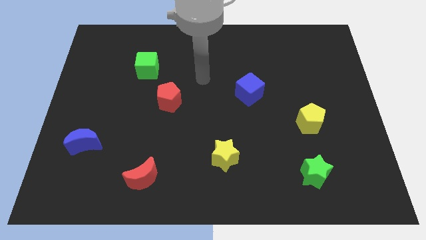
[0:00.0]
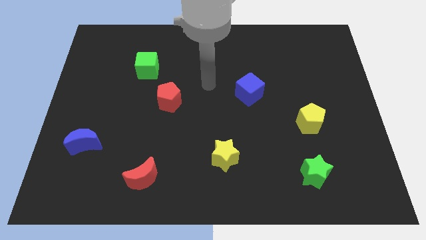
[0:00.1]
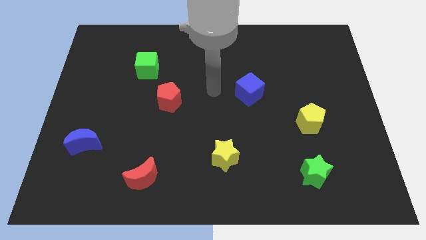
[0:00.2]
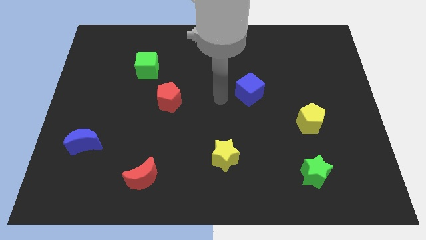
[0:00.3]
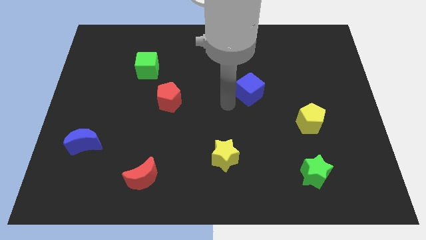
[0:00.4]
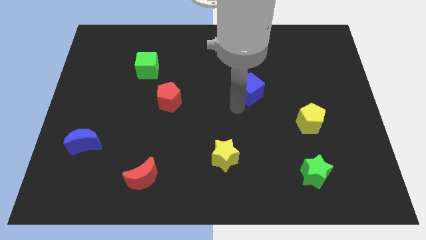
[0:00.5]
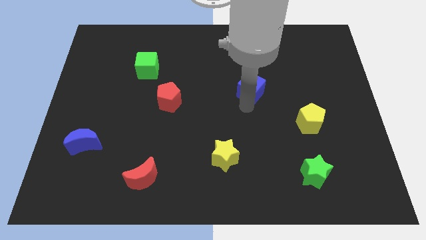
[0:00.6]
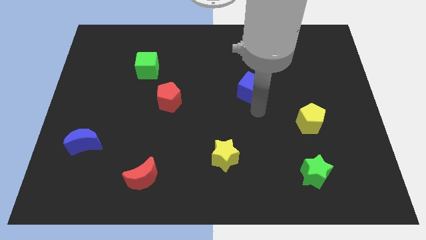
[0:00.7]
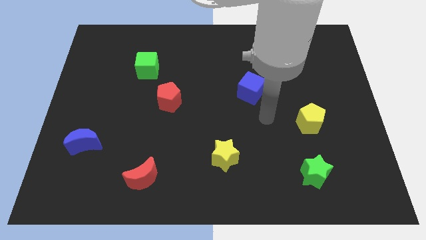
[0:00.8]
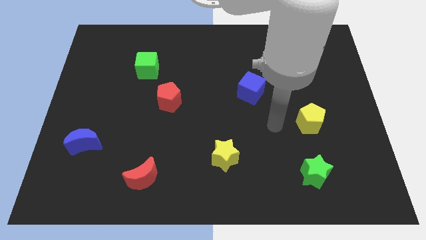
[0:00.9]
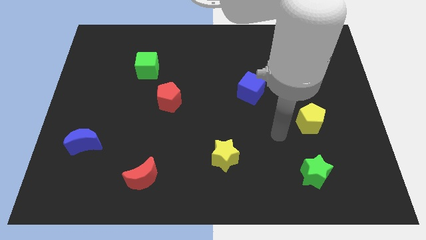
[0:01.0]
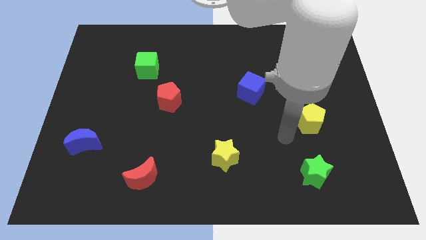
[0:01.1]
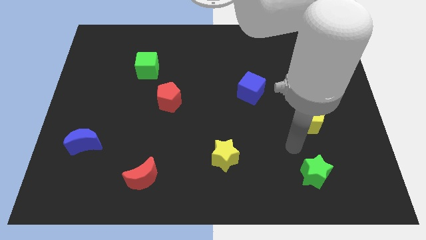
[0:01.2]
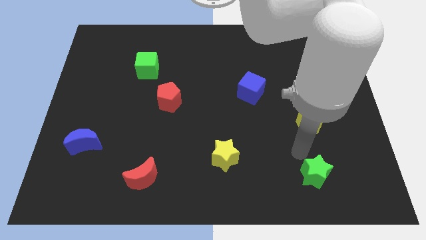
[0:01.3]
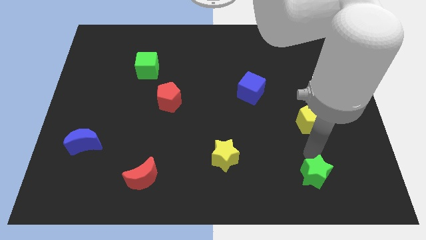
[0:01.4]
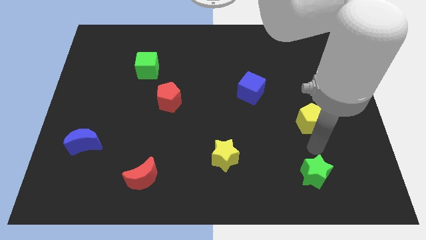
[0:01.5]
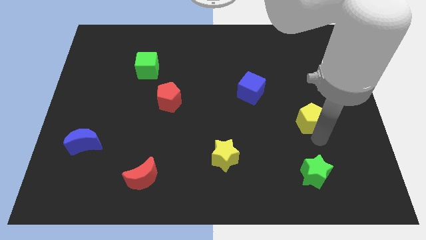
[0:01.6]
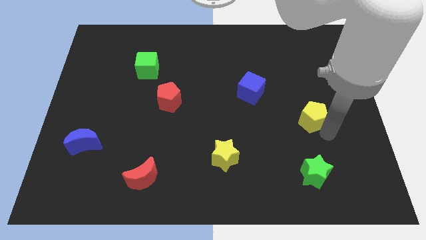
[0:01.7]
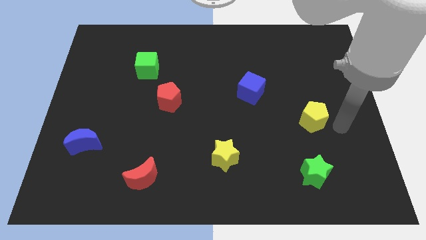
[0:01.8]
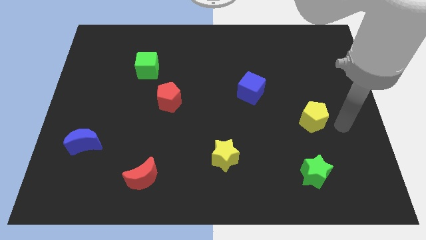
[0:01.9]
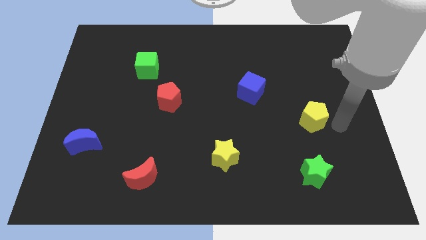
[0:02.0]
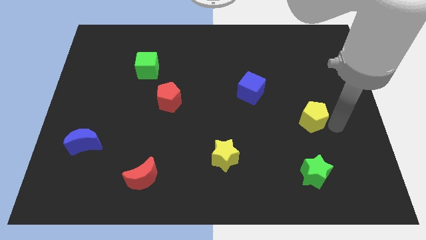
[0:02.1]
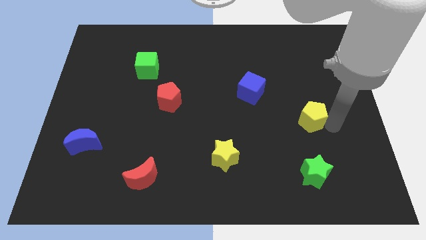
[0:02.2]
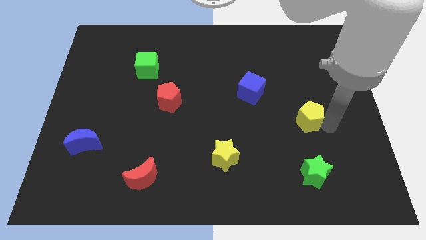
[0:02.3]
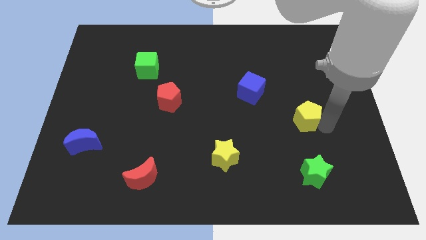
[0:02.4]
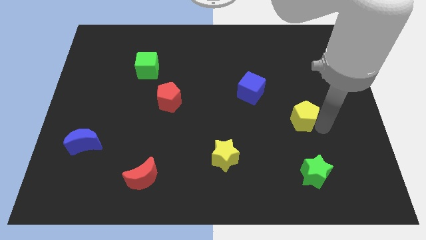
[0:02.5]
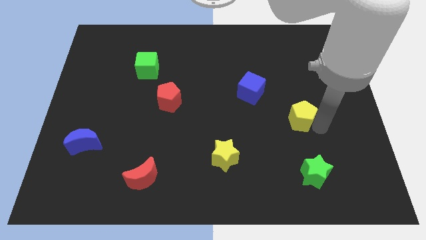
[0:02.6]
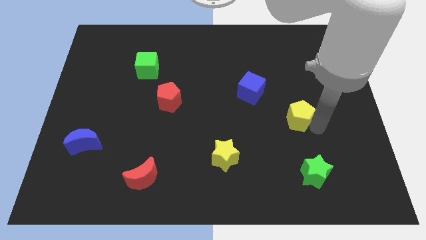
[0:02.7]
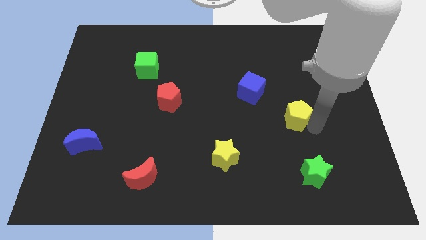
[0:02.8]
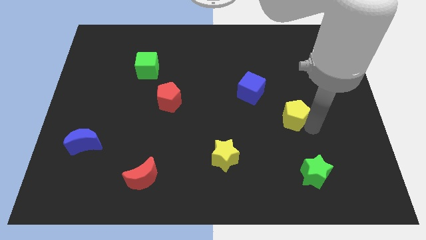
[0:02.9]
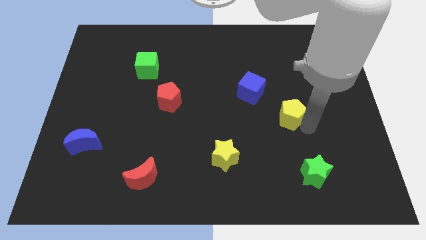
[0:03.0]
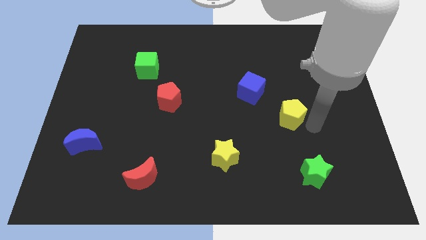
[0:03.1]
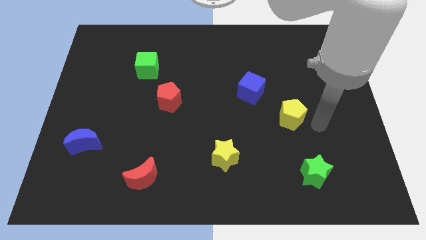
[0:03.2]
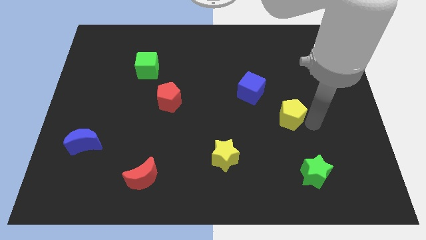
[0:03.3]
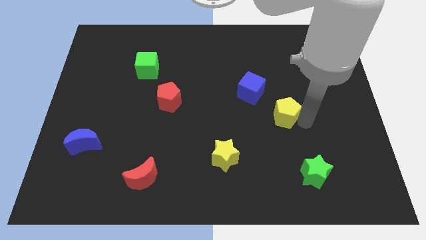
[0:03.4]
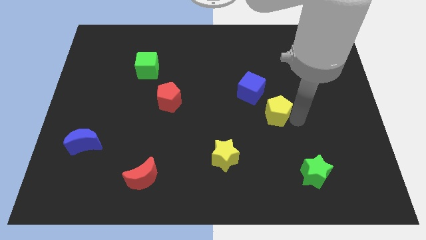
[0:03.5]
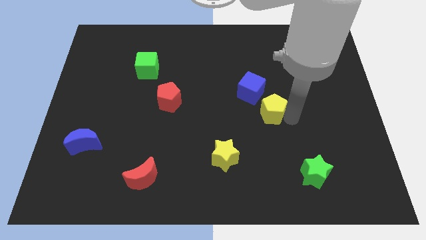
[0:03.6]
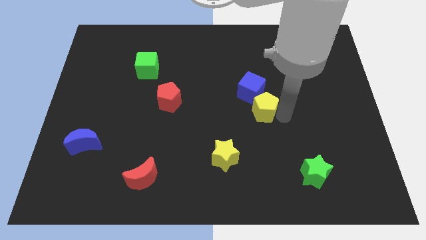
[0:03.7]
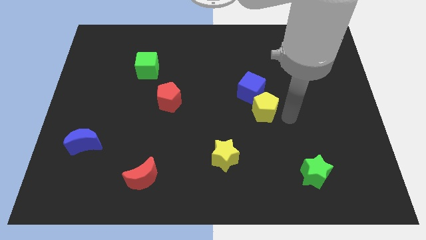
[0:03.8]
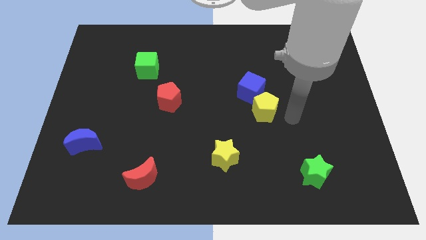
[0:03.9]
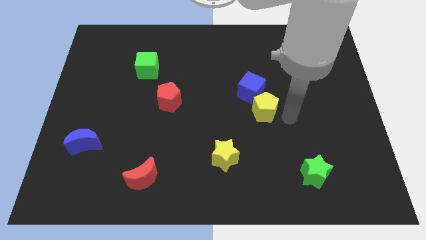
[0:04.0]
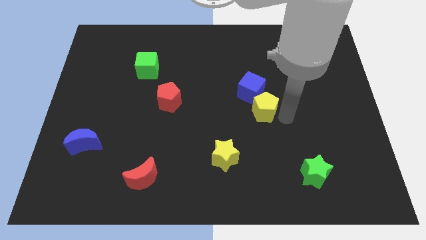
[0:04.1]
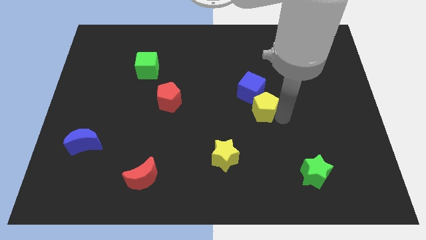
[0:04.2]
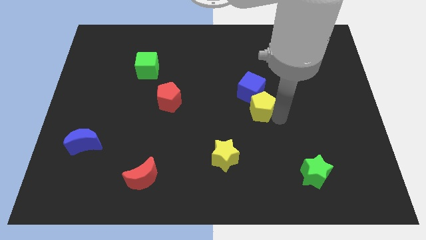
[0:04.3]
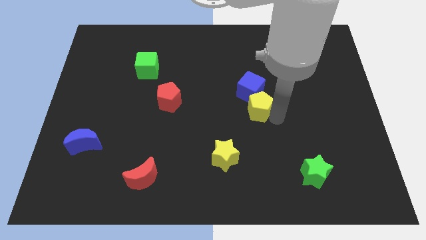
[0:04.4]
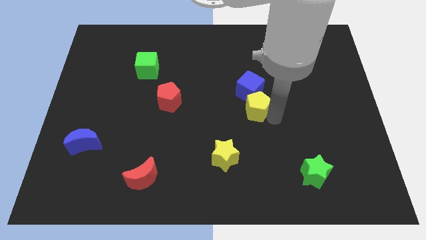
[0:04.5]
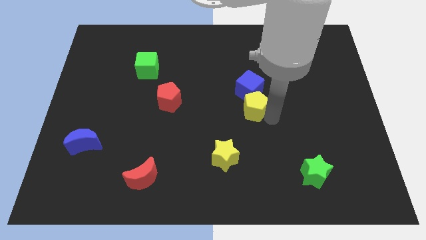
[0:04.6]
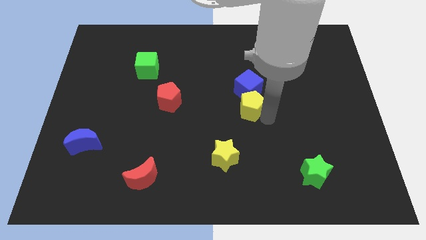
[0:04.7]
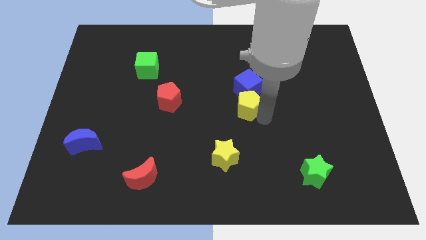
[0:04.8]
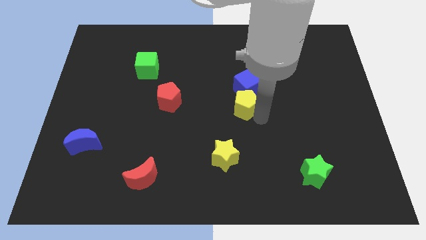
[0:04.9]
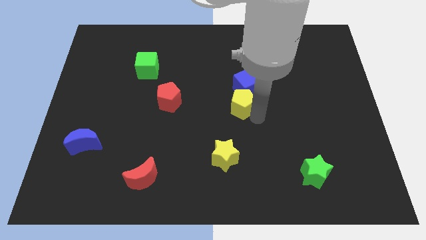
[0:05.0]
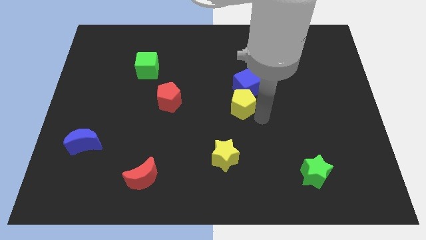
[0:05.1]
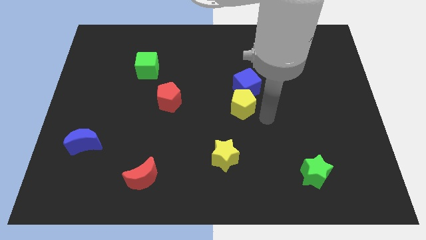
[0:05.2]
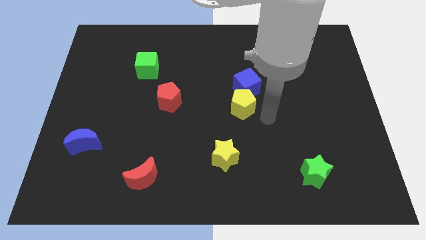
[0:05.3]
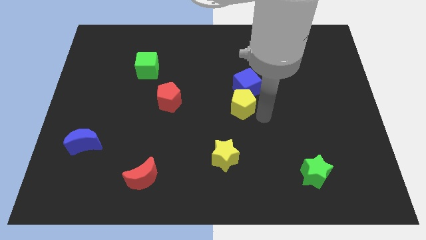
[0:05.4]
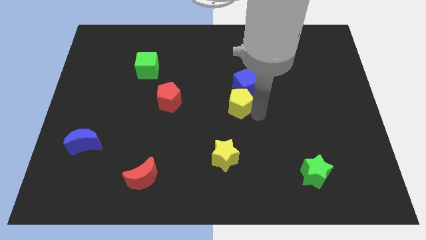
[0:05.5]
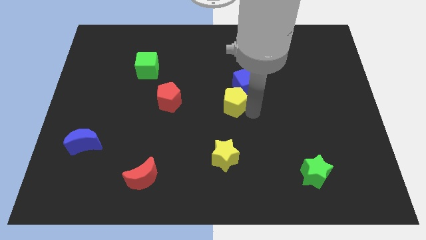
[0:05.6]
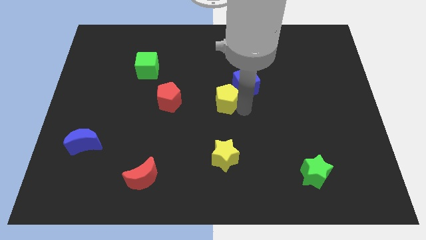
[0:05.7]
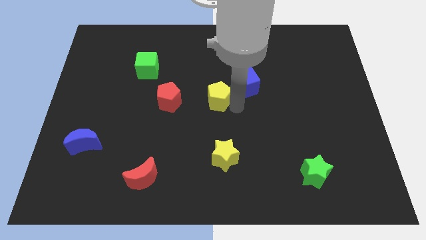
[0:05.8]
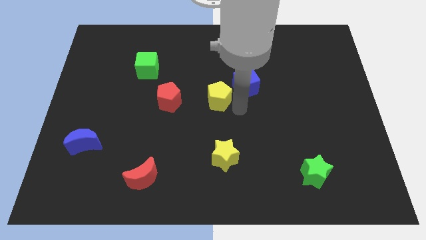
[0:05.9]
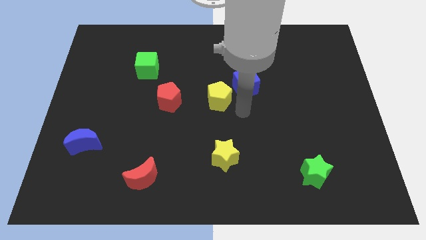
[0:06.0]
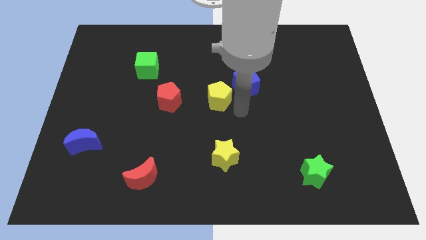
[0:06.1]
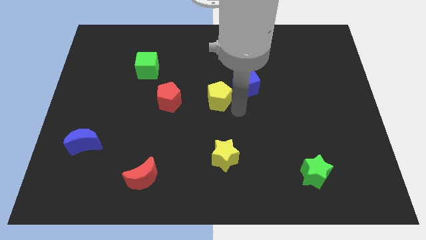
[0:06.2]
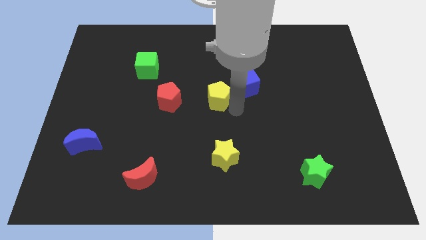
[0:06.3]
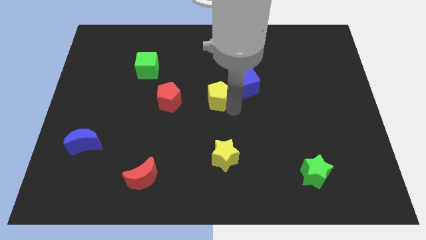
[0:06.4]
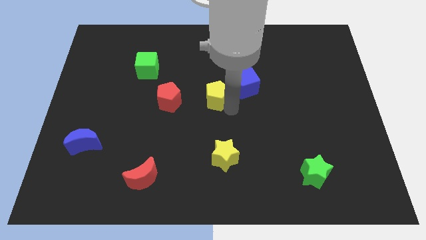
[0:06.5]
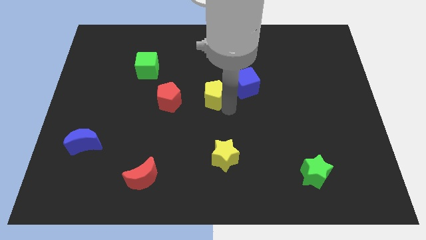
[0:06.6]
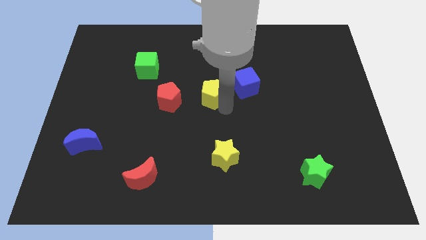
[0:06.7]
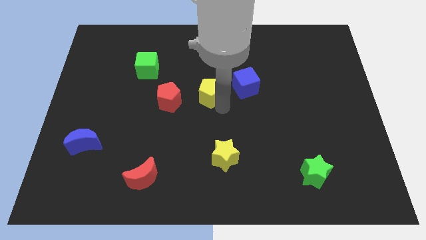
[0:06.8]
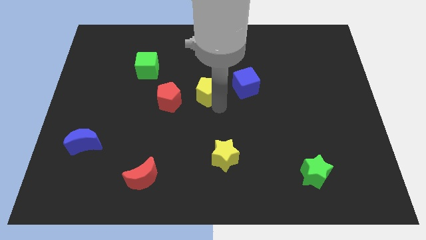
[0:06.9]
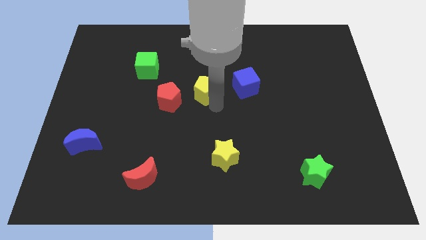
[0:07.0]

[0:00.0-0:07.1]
push the yellow pentagon to the top right of the red pentagon
